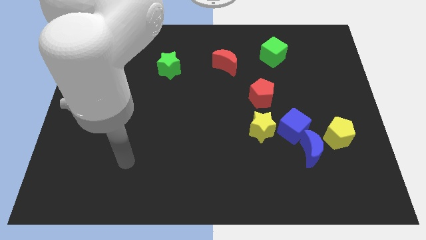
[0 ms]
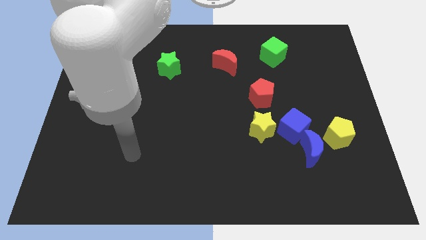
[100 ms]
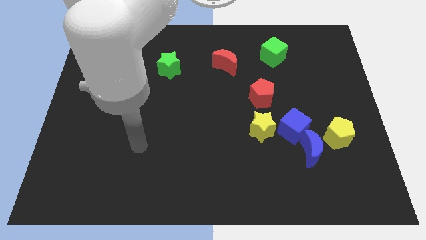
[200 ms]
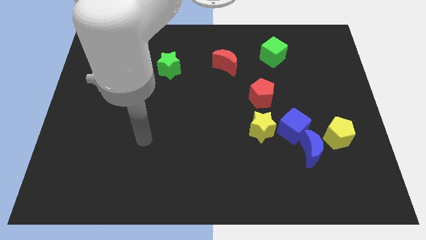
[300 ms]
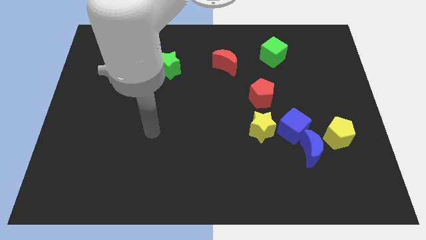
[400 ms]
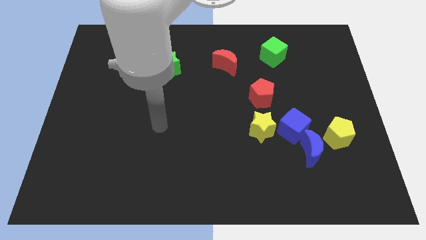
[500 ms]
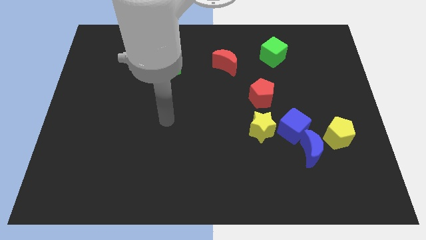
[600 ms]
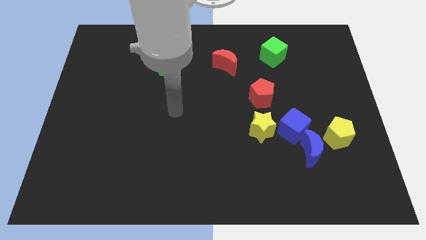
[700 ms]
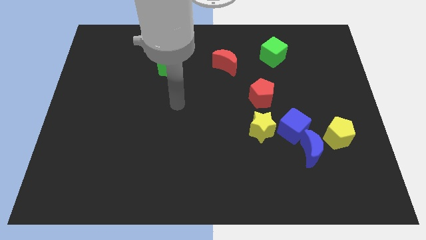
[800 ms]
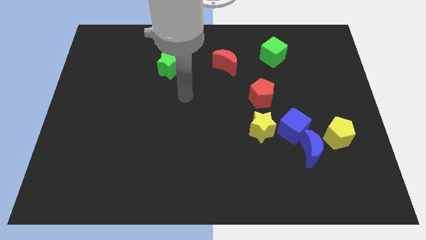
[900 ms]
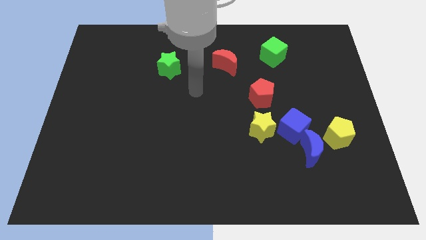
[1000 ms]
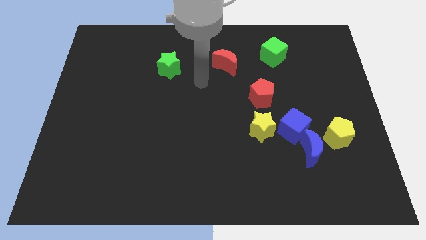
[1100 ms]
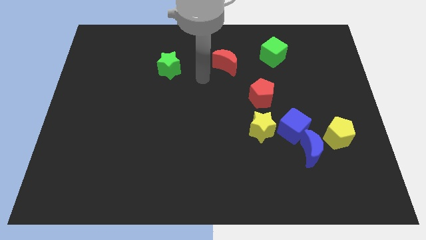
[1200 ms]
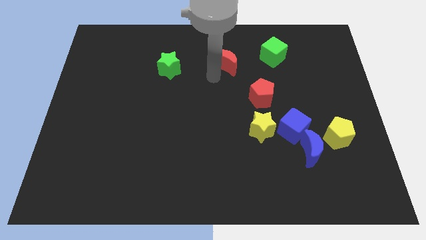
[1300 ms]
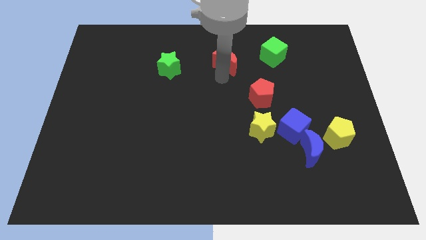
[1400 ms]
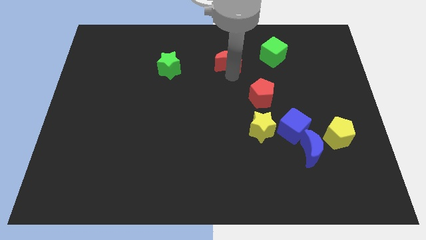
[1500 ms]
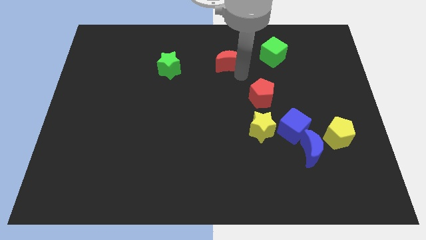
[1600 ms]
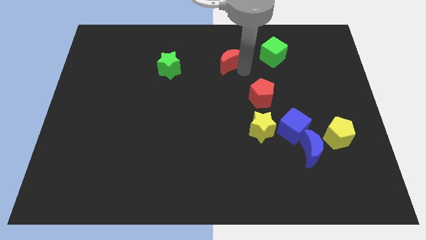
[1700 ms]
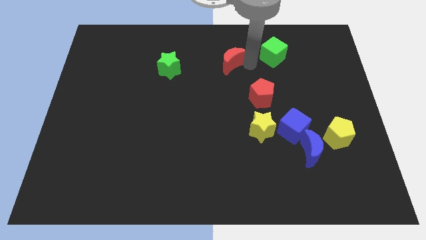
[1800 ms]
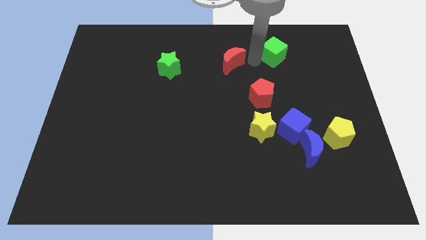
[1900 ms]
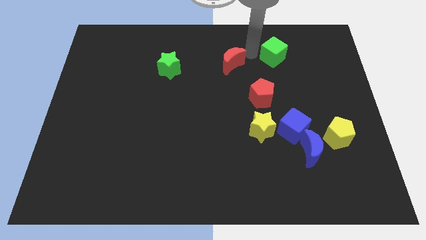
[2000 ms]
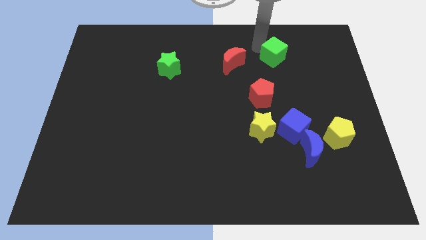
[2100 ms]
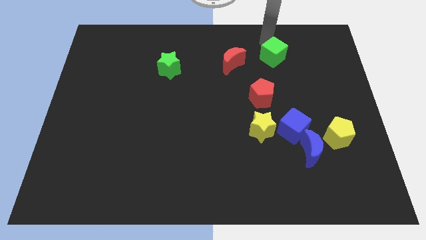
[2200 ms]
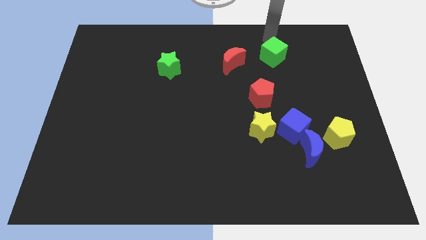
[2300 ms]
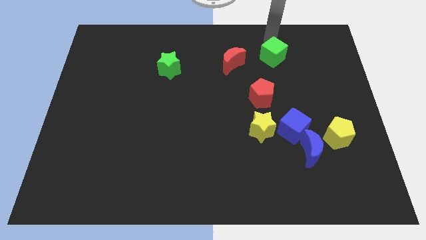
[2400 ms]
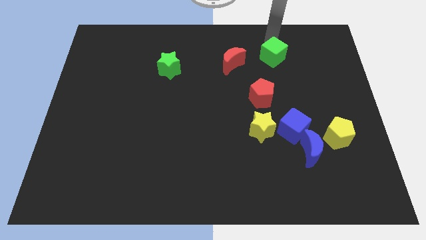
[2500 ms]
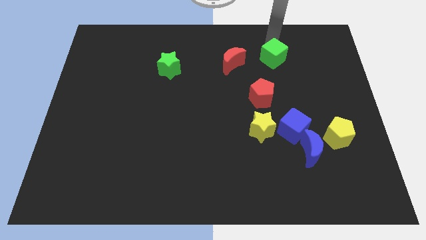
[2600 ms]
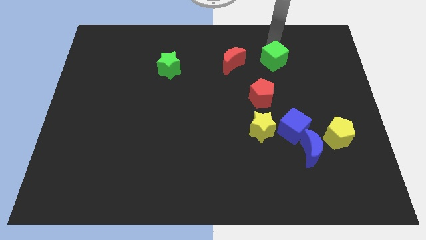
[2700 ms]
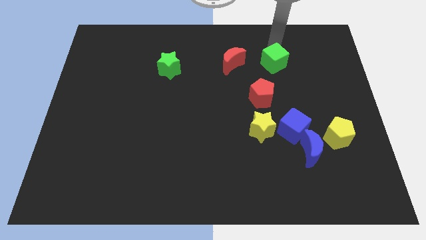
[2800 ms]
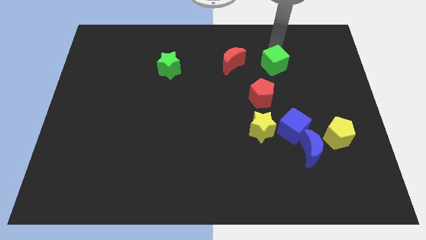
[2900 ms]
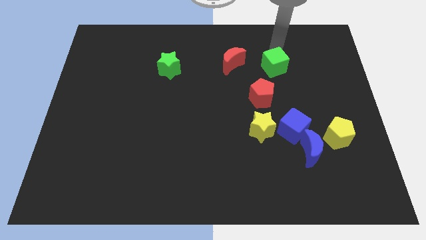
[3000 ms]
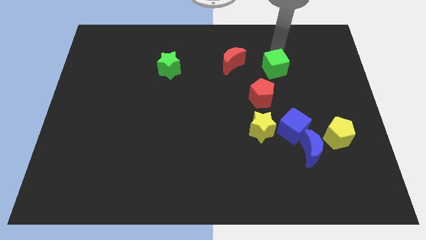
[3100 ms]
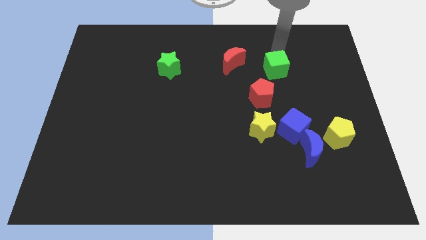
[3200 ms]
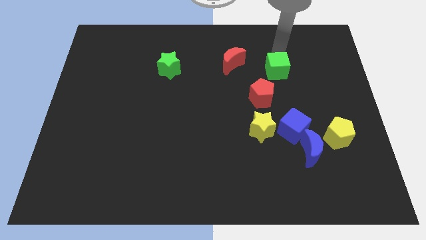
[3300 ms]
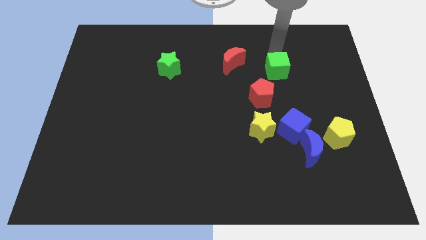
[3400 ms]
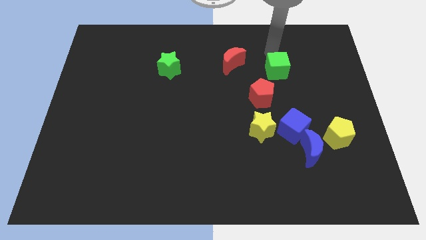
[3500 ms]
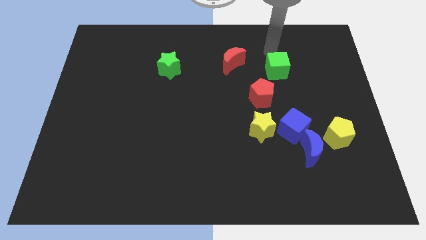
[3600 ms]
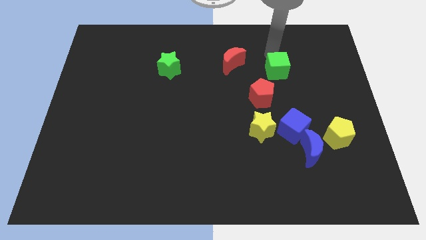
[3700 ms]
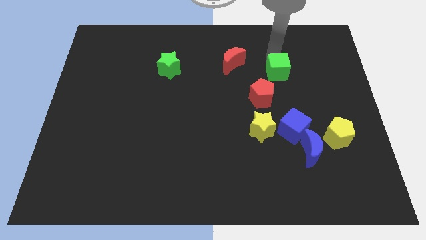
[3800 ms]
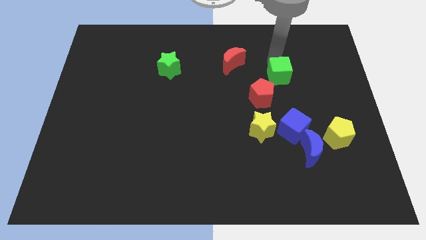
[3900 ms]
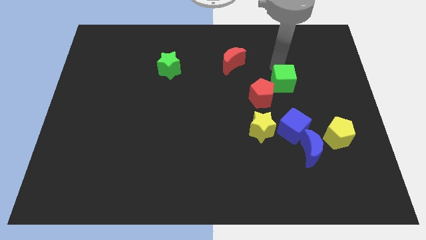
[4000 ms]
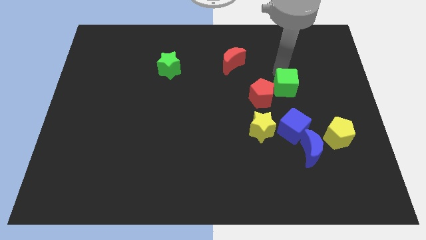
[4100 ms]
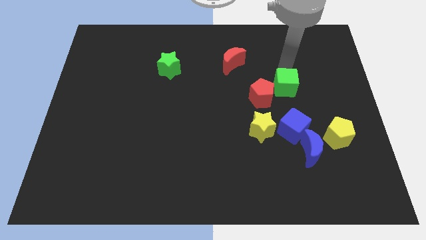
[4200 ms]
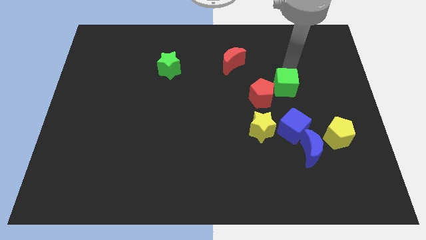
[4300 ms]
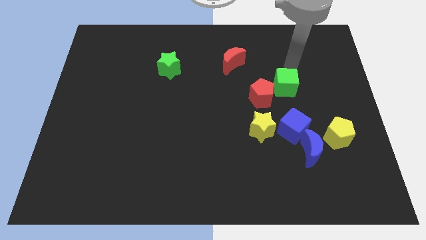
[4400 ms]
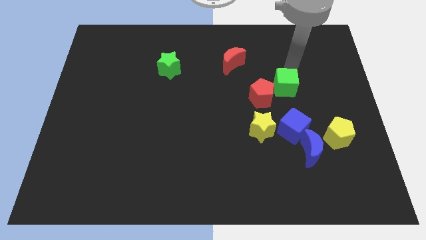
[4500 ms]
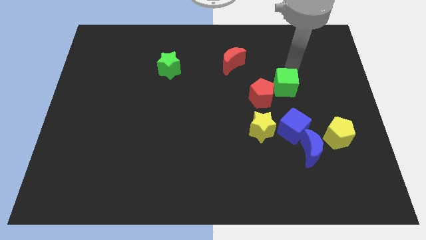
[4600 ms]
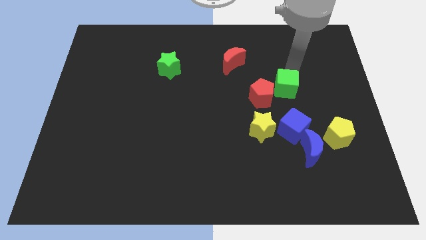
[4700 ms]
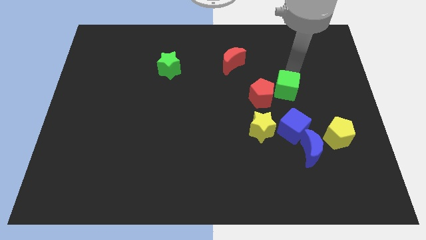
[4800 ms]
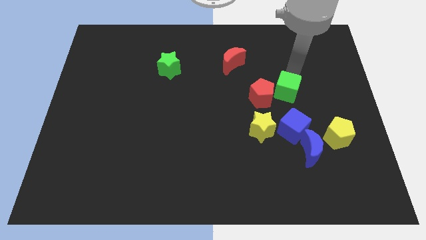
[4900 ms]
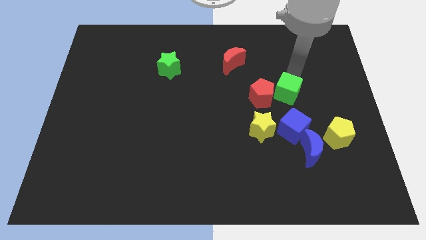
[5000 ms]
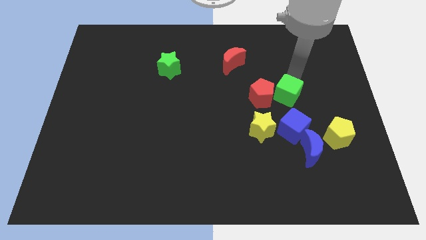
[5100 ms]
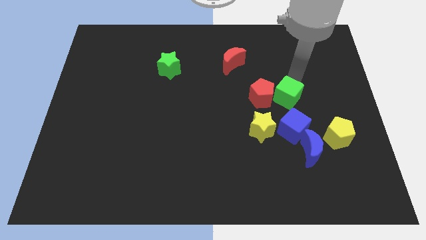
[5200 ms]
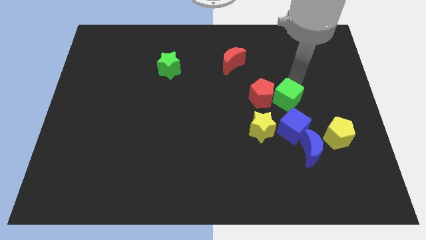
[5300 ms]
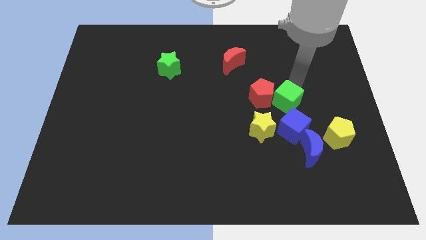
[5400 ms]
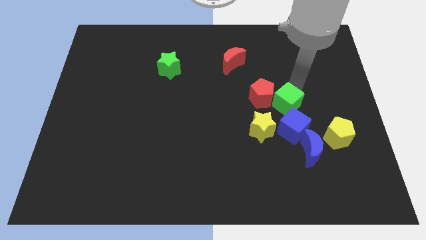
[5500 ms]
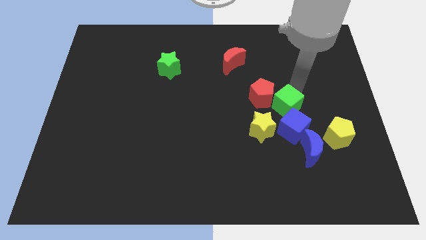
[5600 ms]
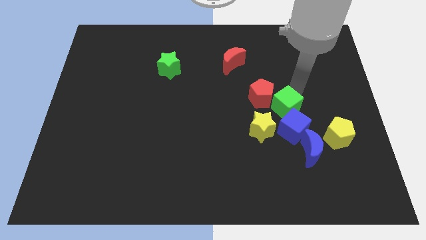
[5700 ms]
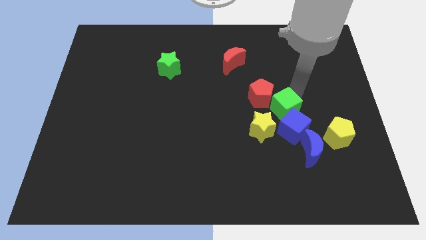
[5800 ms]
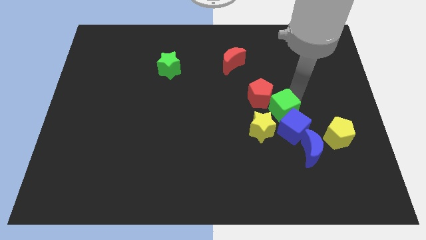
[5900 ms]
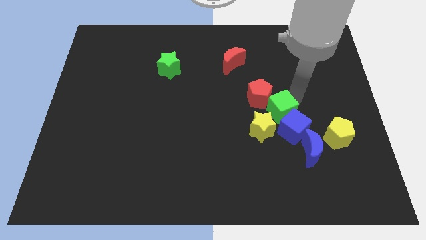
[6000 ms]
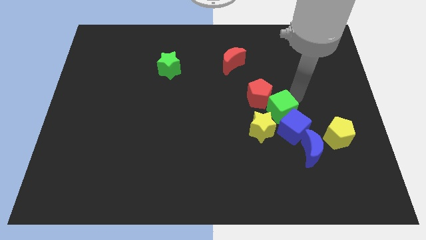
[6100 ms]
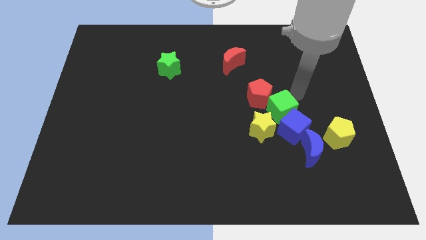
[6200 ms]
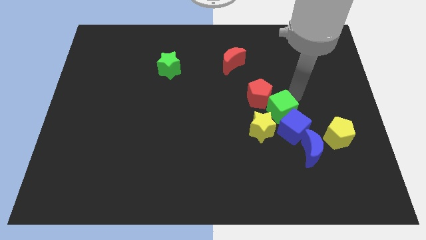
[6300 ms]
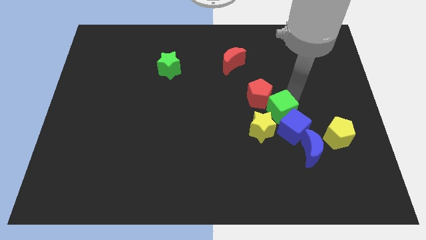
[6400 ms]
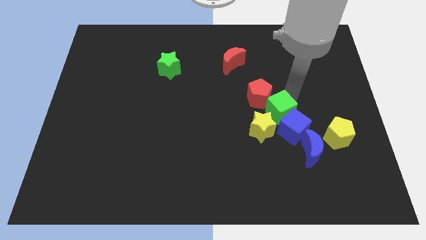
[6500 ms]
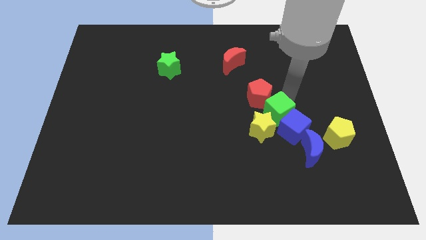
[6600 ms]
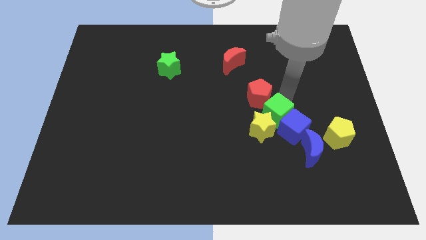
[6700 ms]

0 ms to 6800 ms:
push the green cube to the yellow star

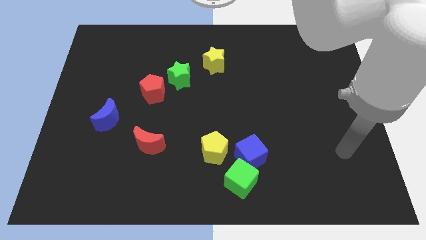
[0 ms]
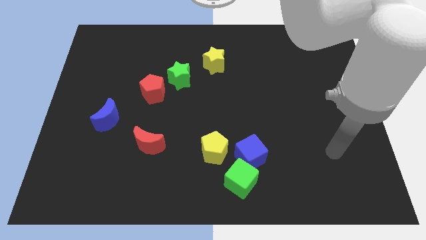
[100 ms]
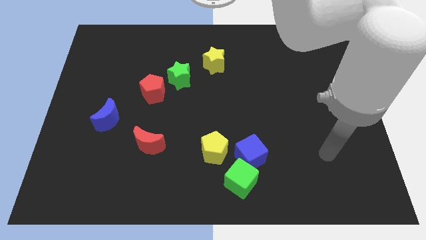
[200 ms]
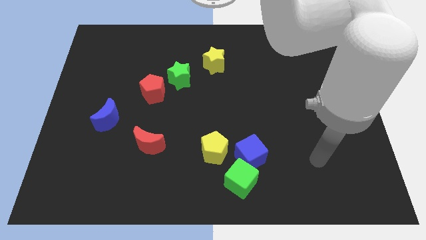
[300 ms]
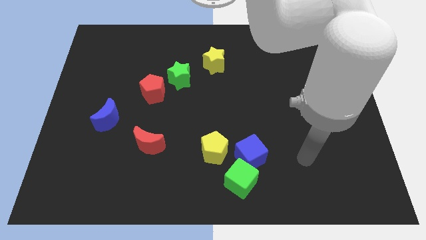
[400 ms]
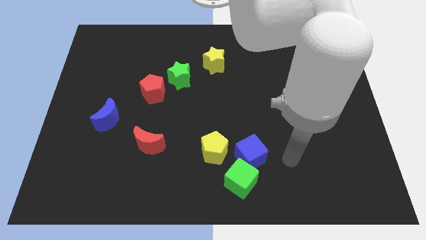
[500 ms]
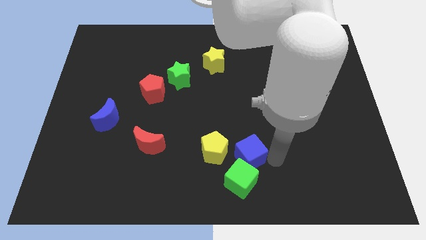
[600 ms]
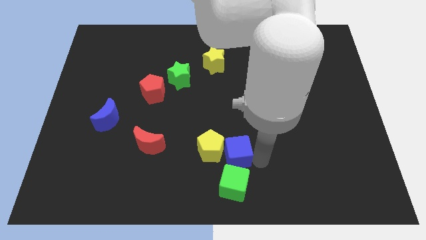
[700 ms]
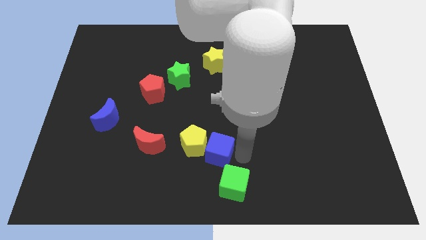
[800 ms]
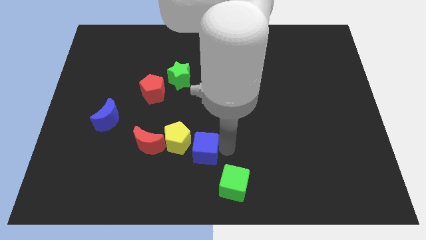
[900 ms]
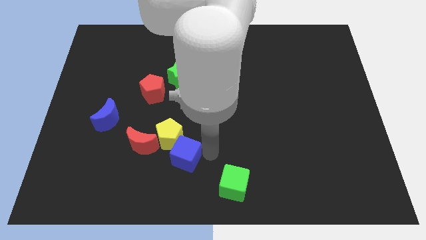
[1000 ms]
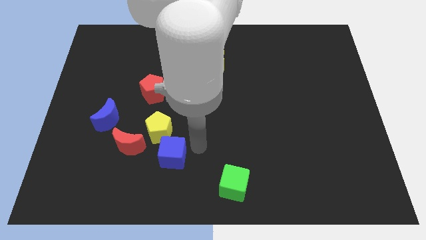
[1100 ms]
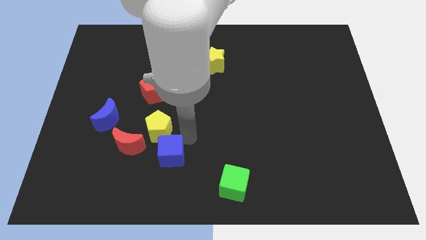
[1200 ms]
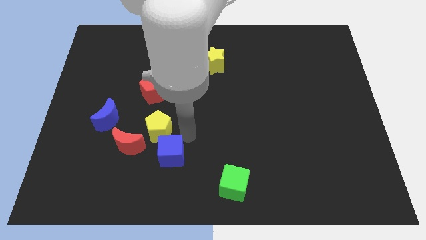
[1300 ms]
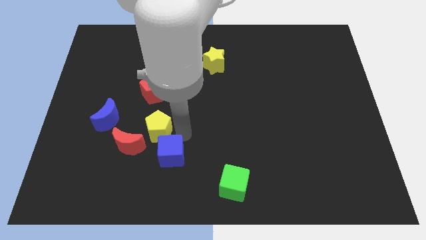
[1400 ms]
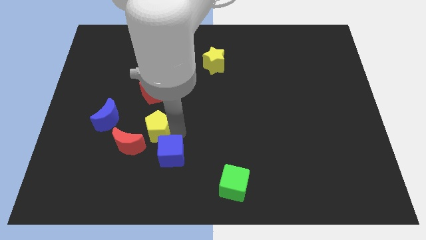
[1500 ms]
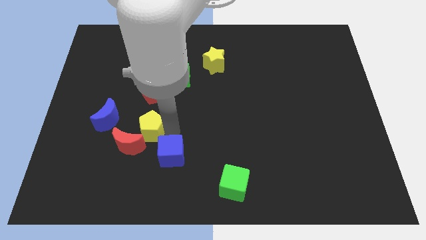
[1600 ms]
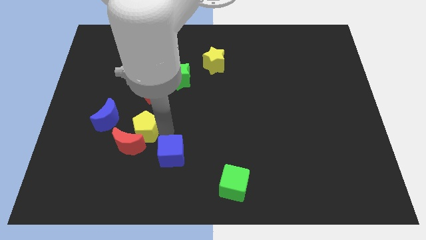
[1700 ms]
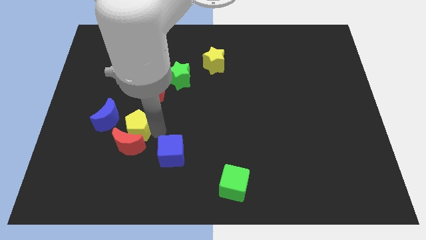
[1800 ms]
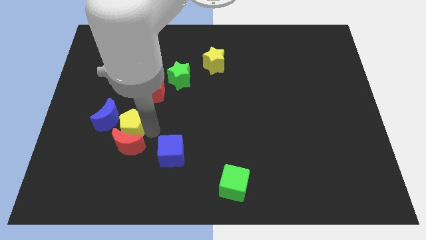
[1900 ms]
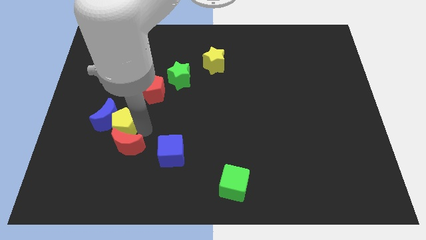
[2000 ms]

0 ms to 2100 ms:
push the yellow pentagon towards the blue moon
